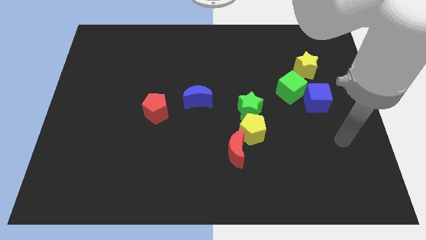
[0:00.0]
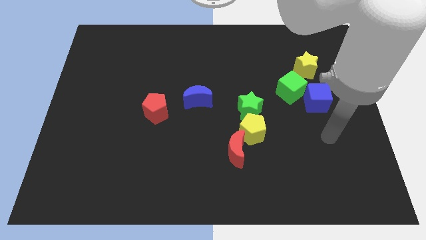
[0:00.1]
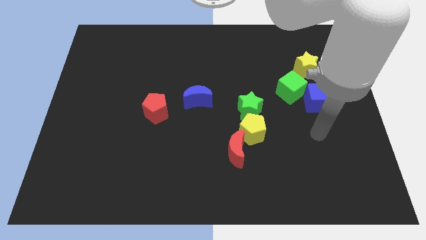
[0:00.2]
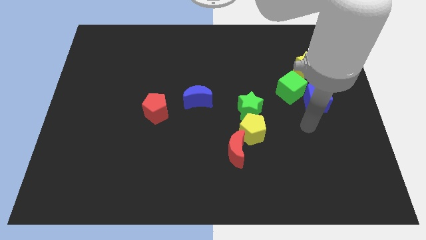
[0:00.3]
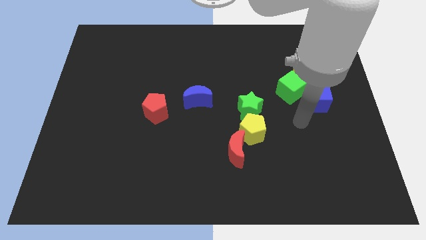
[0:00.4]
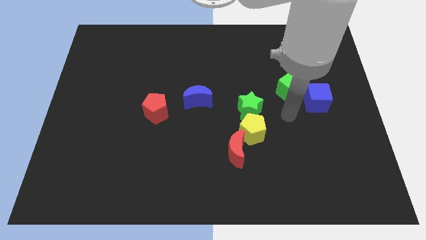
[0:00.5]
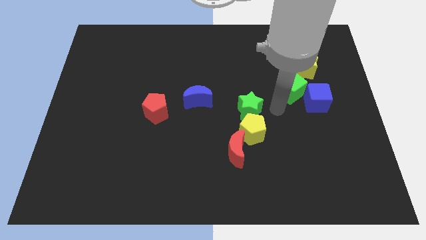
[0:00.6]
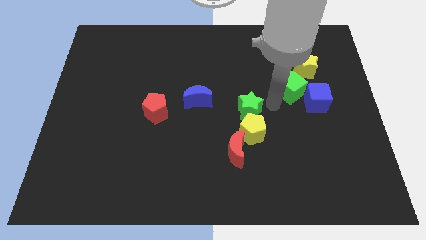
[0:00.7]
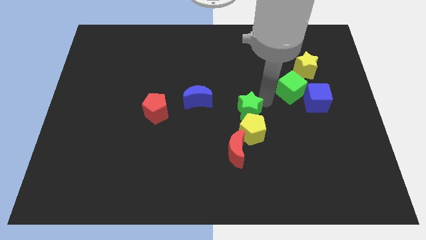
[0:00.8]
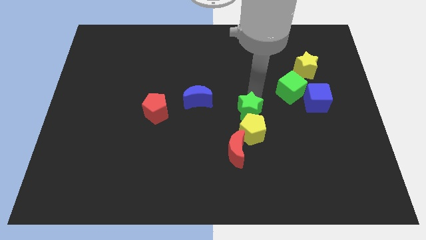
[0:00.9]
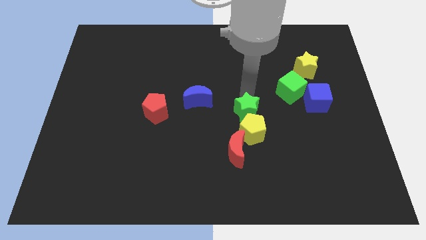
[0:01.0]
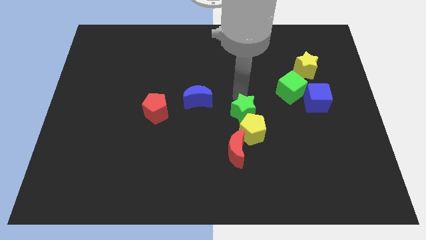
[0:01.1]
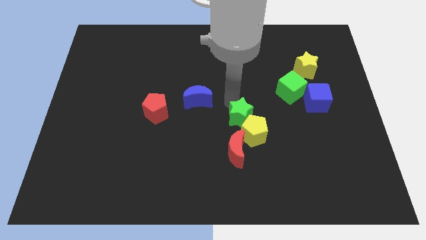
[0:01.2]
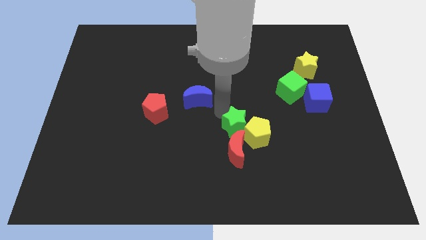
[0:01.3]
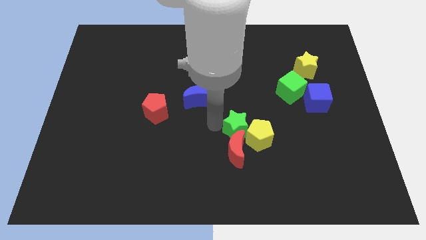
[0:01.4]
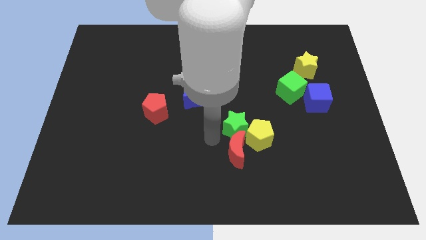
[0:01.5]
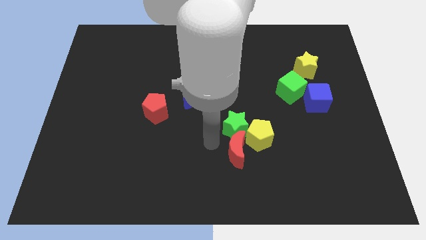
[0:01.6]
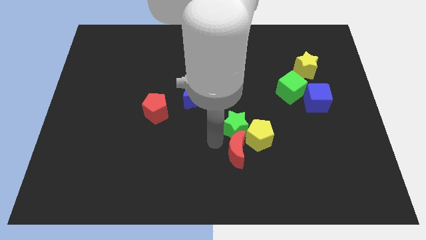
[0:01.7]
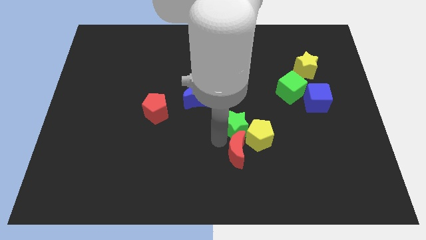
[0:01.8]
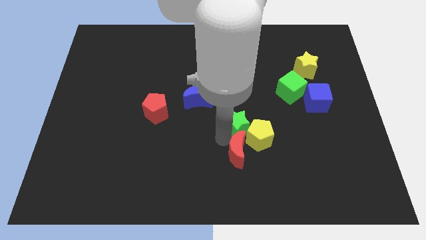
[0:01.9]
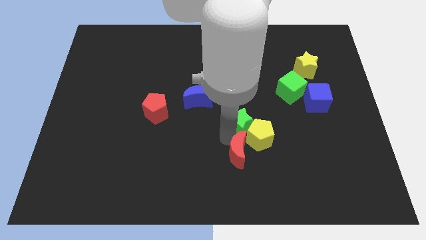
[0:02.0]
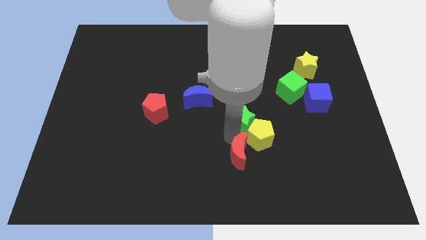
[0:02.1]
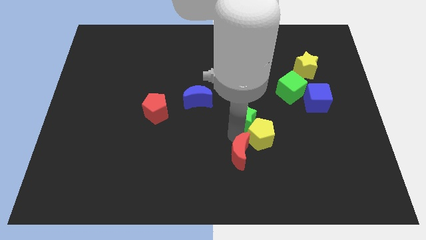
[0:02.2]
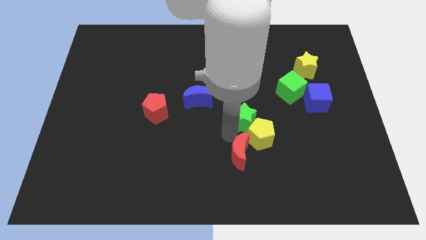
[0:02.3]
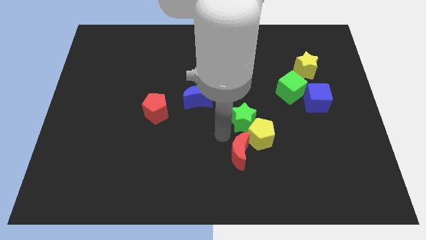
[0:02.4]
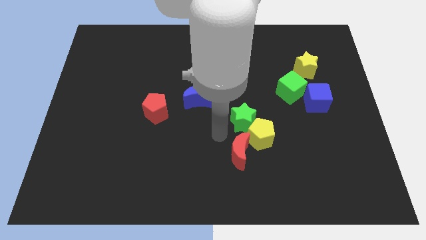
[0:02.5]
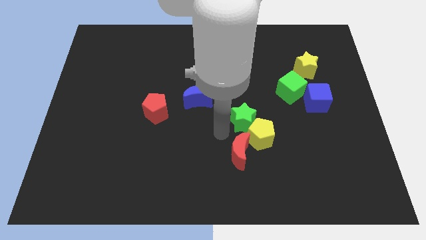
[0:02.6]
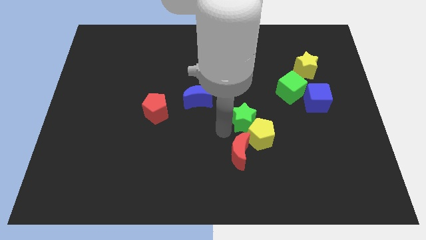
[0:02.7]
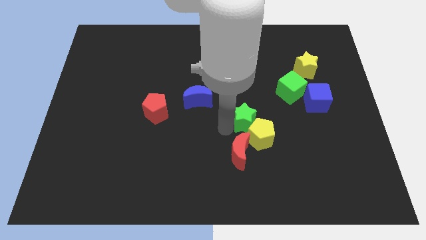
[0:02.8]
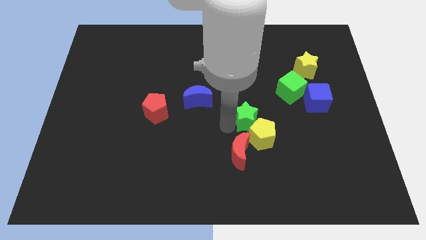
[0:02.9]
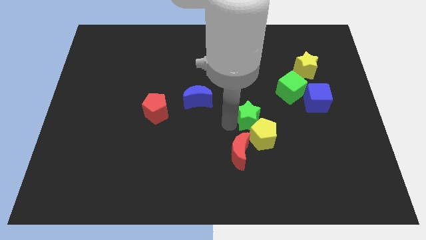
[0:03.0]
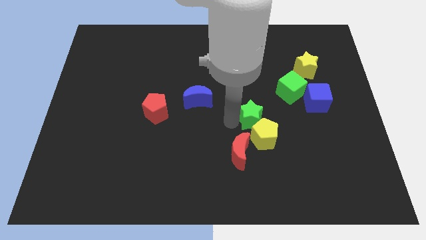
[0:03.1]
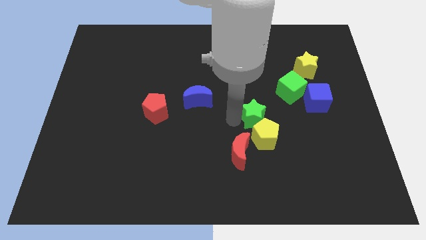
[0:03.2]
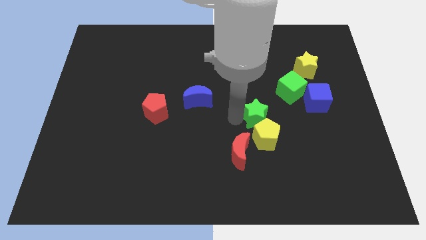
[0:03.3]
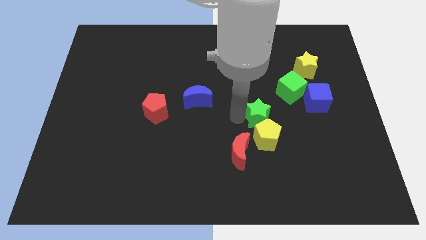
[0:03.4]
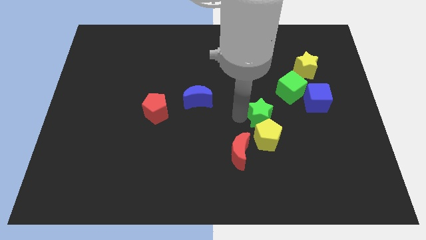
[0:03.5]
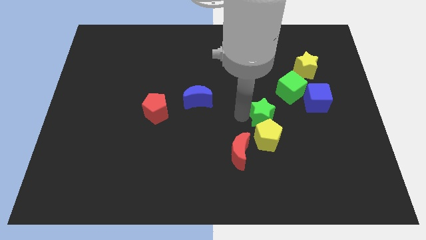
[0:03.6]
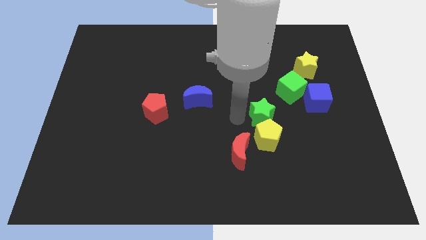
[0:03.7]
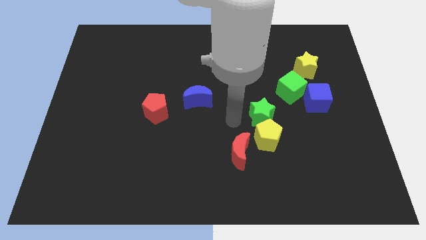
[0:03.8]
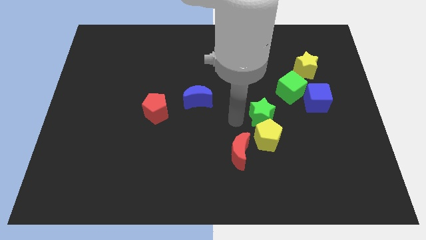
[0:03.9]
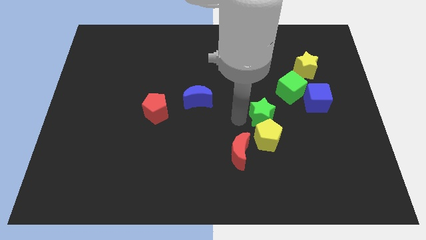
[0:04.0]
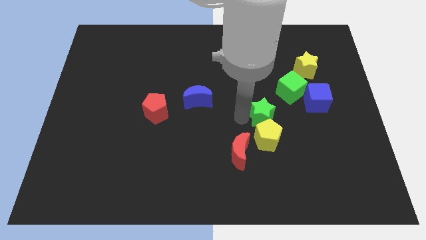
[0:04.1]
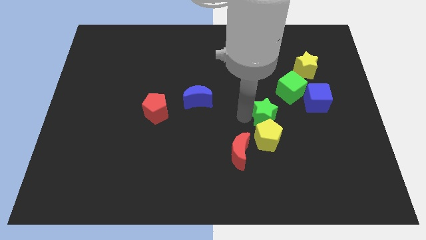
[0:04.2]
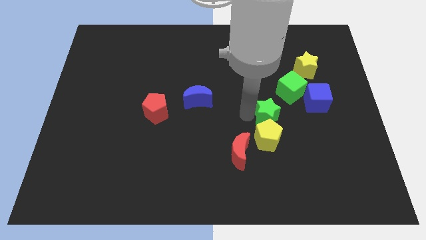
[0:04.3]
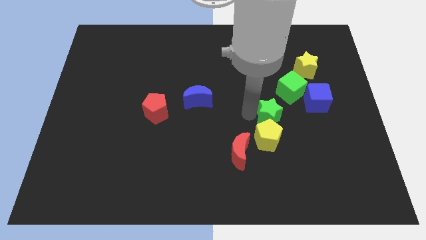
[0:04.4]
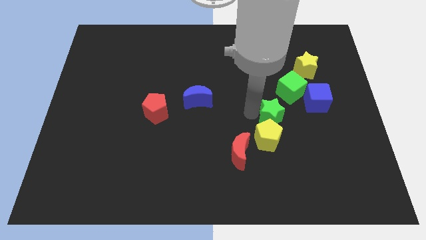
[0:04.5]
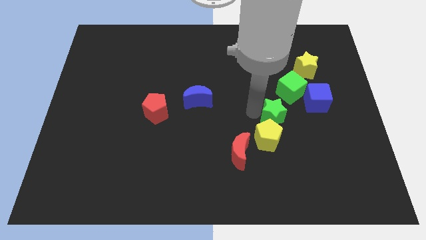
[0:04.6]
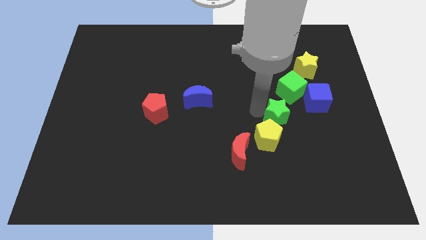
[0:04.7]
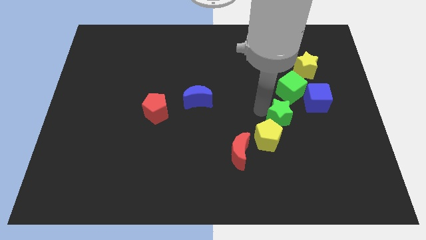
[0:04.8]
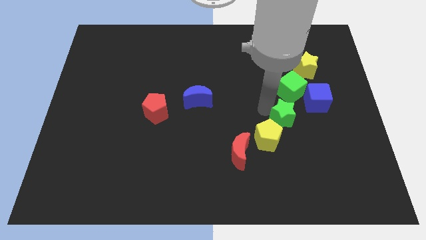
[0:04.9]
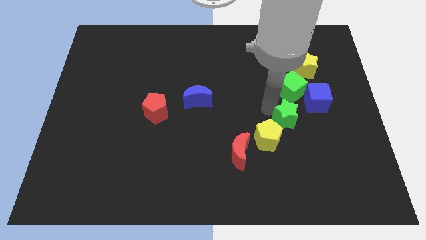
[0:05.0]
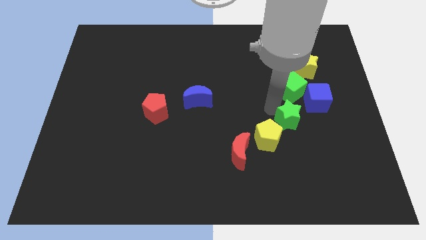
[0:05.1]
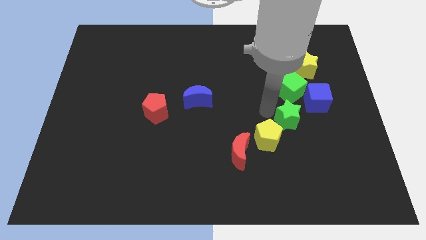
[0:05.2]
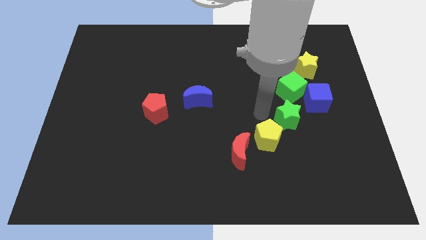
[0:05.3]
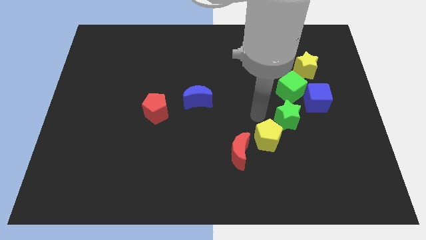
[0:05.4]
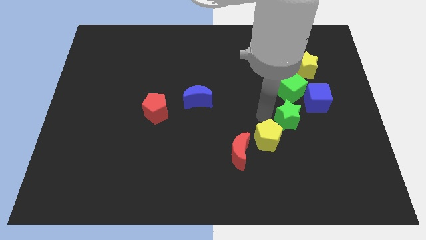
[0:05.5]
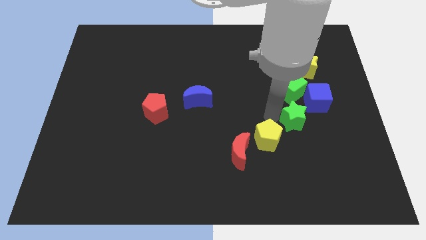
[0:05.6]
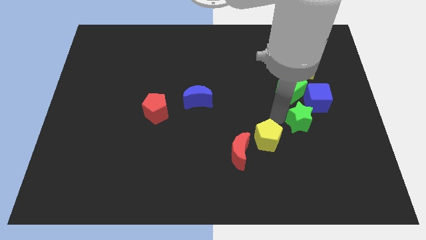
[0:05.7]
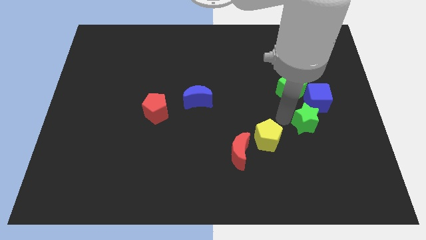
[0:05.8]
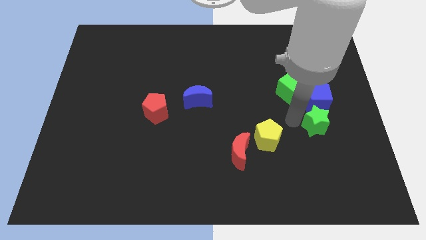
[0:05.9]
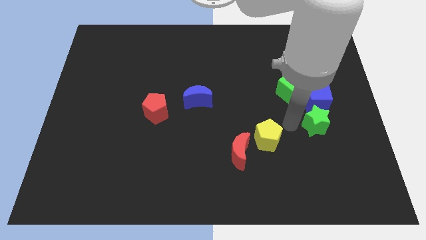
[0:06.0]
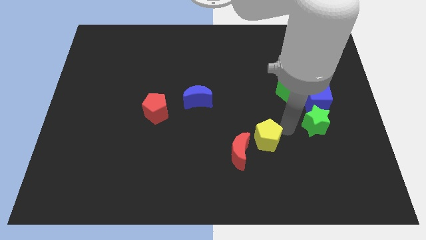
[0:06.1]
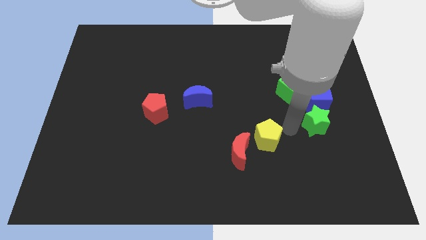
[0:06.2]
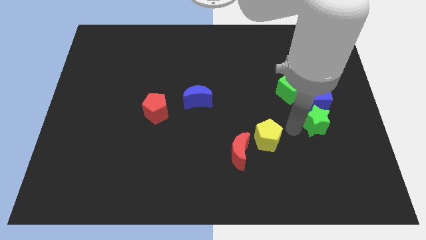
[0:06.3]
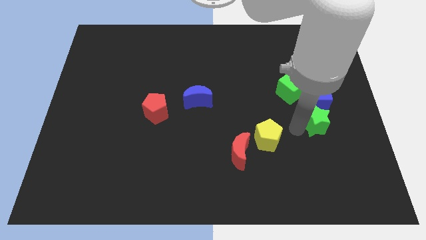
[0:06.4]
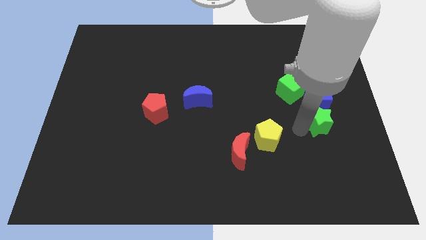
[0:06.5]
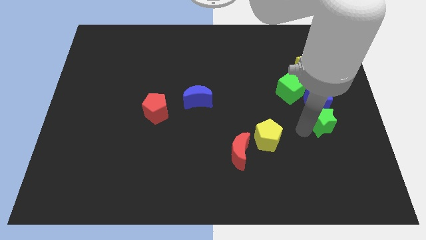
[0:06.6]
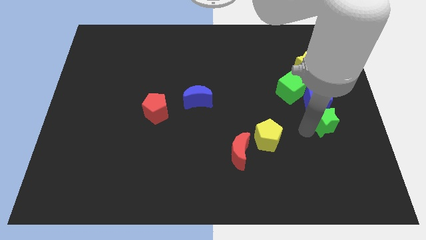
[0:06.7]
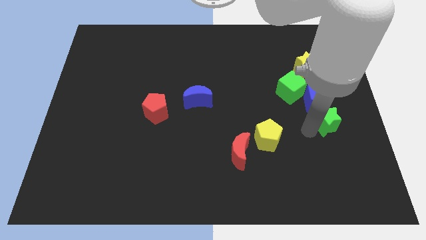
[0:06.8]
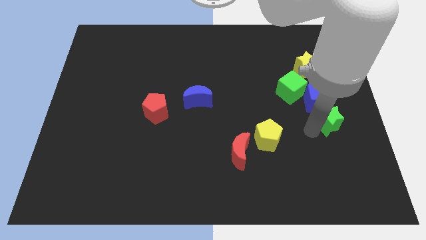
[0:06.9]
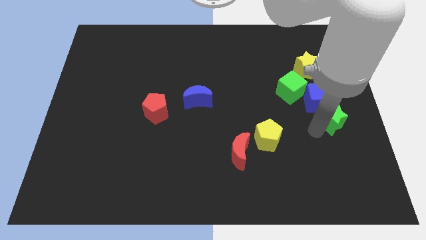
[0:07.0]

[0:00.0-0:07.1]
move the green star to the center right
